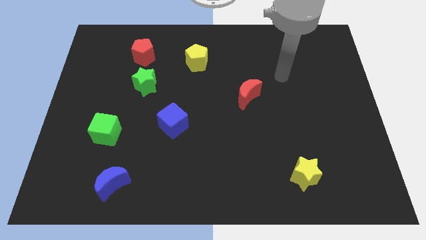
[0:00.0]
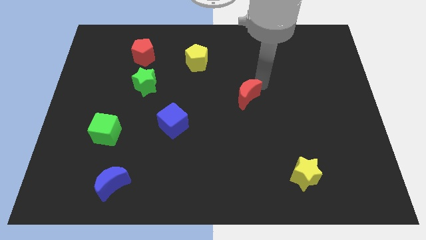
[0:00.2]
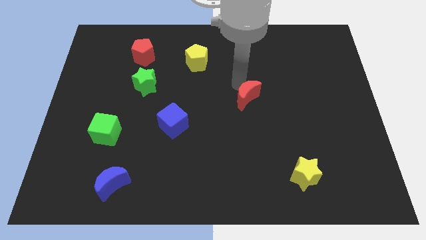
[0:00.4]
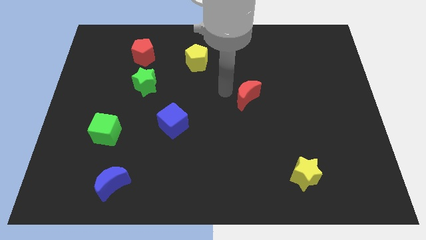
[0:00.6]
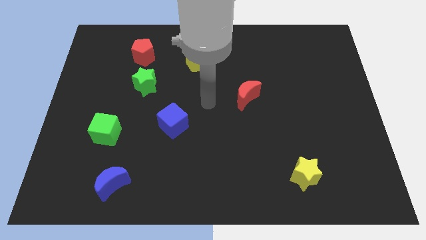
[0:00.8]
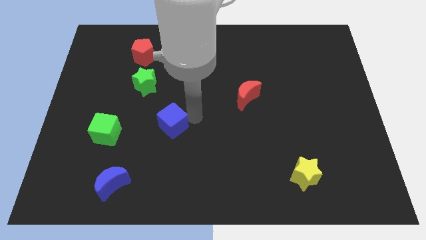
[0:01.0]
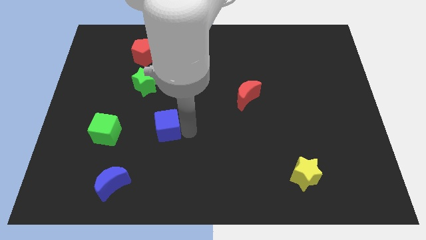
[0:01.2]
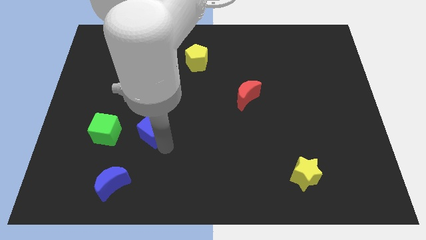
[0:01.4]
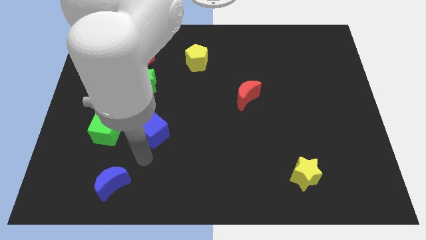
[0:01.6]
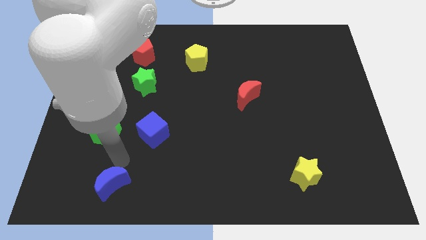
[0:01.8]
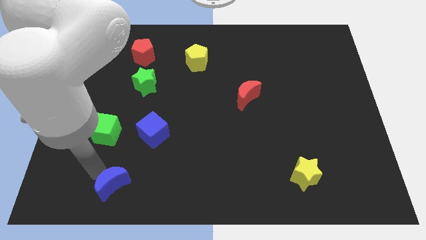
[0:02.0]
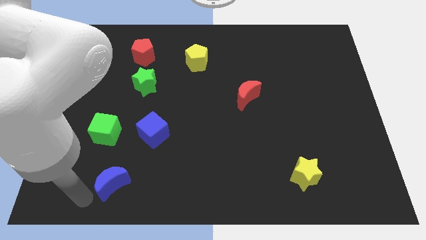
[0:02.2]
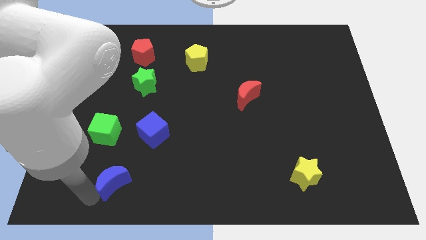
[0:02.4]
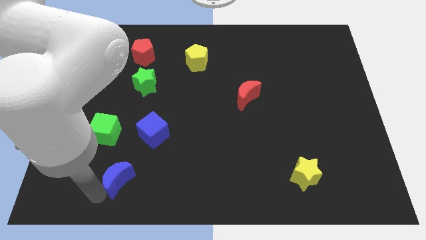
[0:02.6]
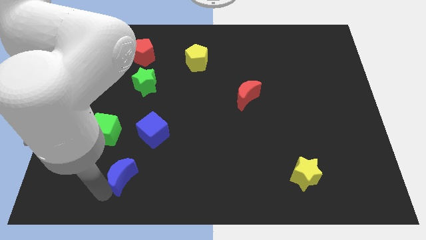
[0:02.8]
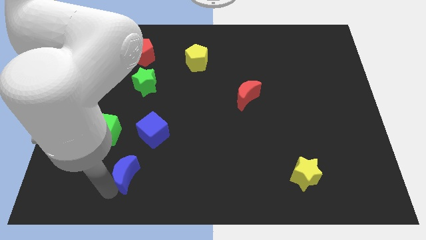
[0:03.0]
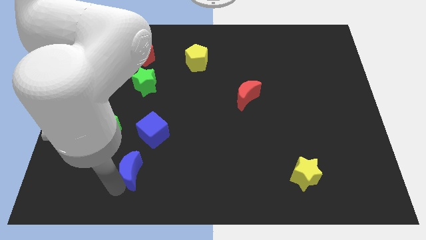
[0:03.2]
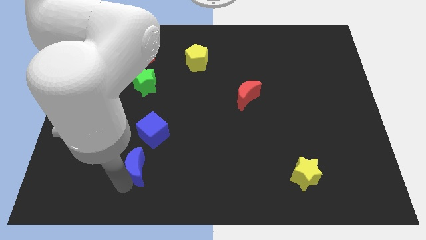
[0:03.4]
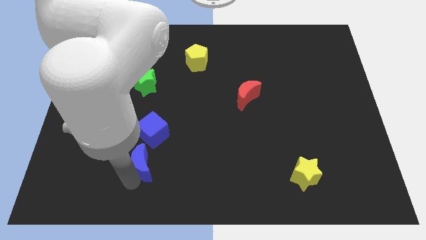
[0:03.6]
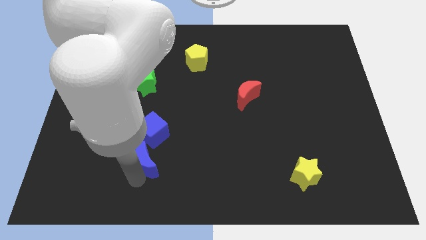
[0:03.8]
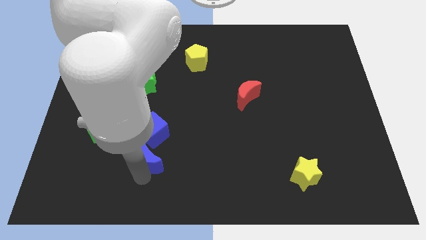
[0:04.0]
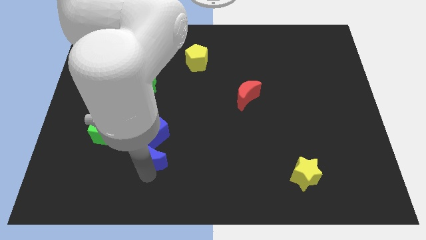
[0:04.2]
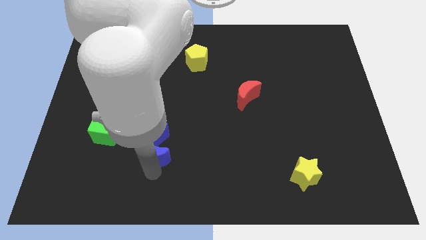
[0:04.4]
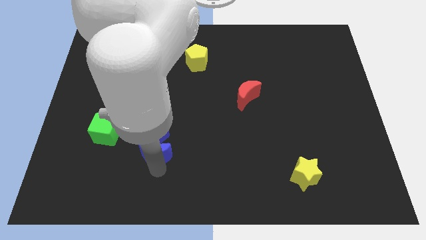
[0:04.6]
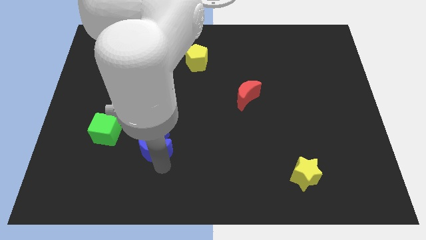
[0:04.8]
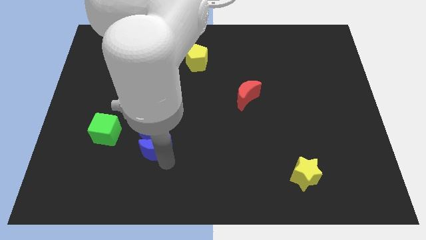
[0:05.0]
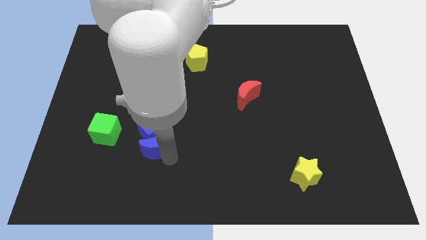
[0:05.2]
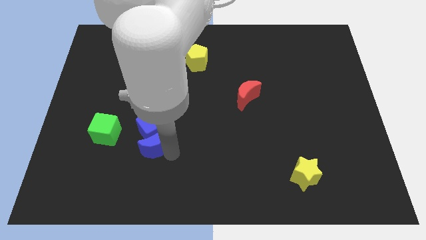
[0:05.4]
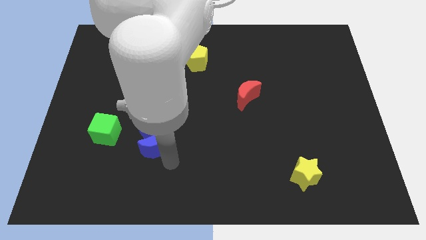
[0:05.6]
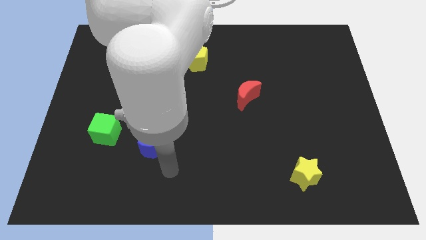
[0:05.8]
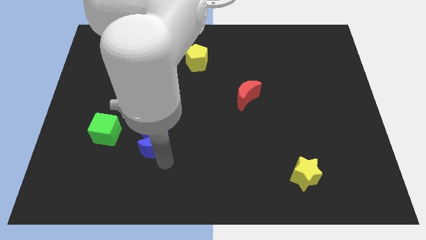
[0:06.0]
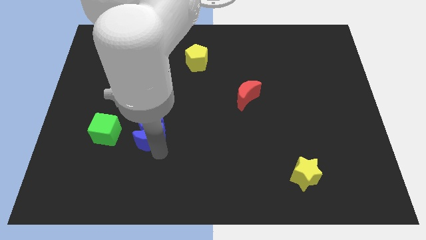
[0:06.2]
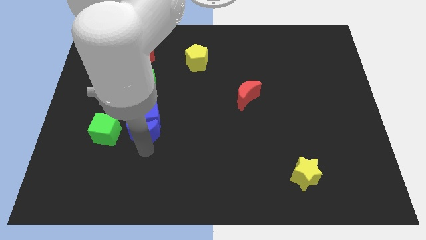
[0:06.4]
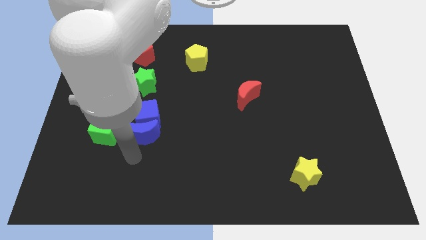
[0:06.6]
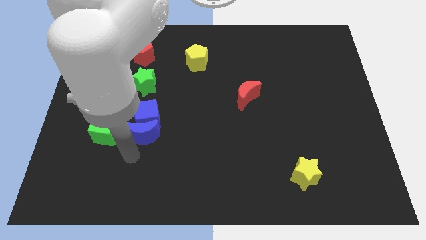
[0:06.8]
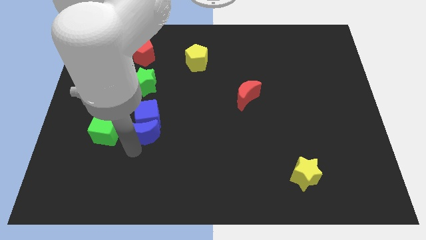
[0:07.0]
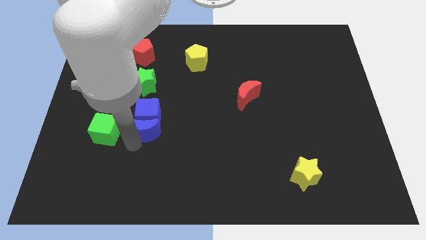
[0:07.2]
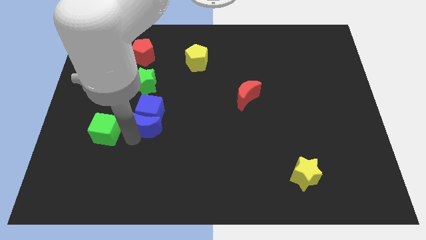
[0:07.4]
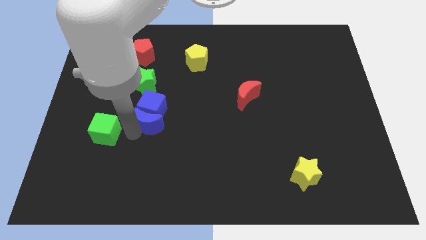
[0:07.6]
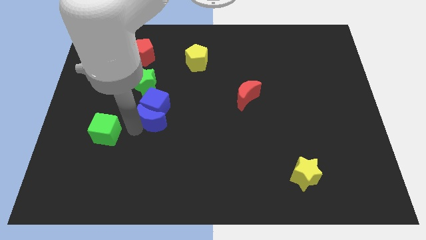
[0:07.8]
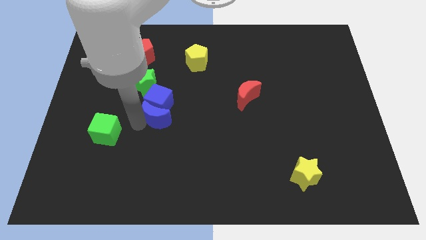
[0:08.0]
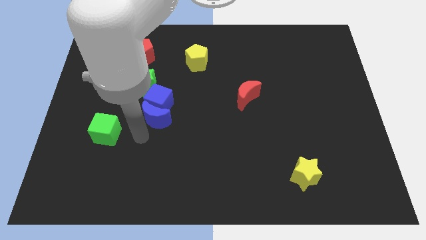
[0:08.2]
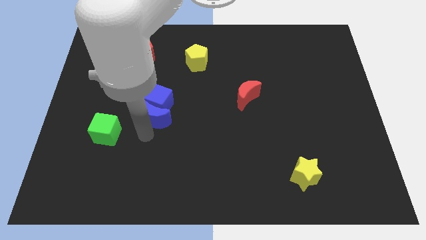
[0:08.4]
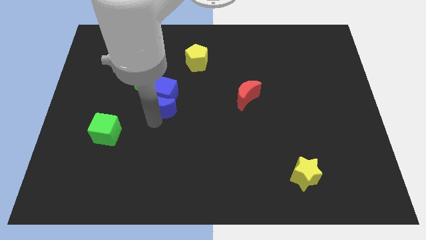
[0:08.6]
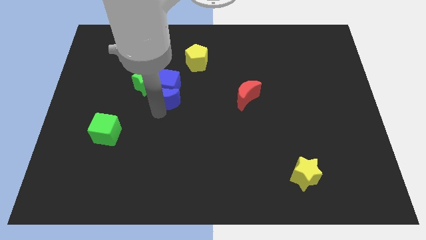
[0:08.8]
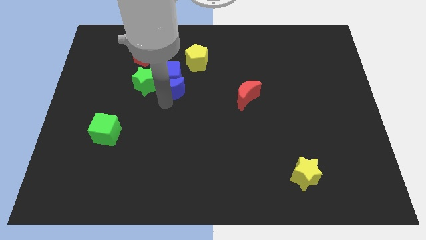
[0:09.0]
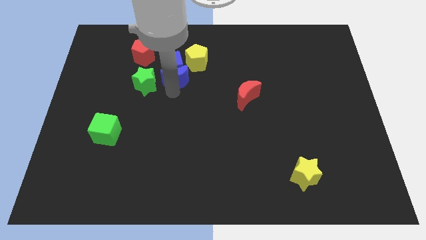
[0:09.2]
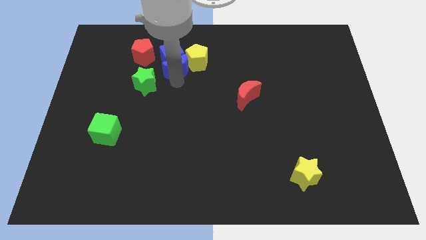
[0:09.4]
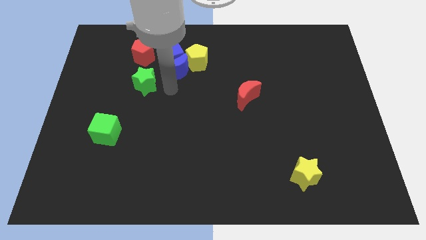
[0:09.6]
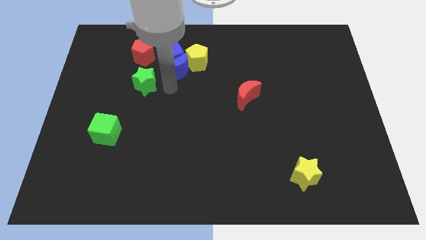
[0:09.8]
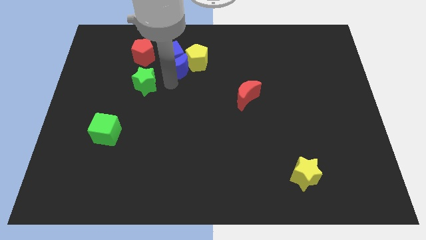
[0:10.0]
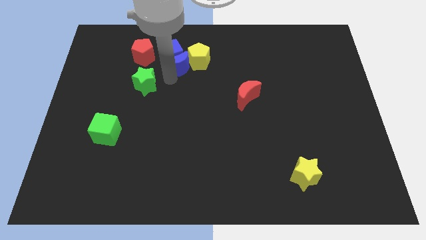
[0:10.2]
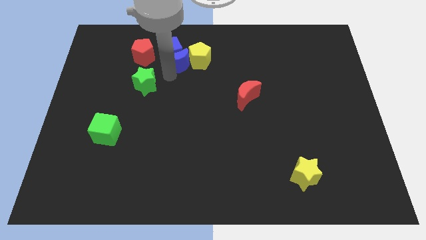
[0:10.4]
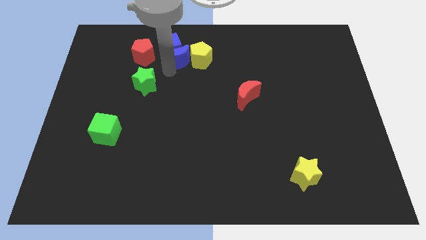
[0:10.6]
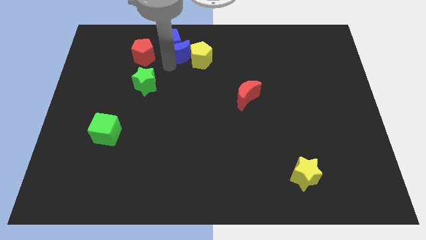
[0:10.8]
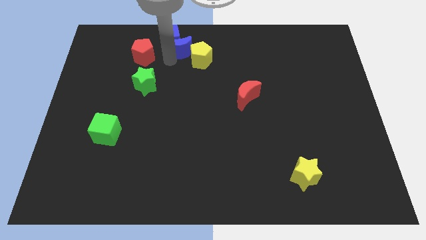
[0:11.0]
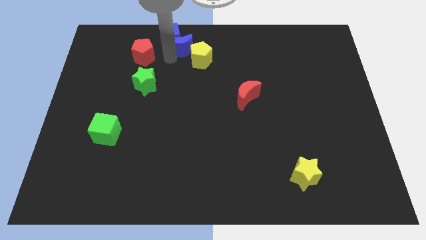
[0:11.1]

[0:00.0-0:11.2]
push the blue moon to the top side

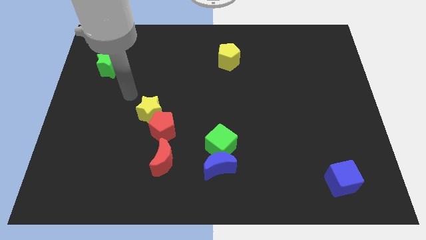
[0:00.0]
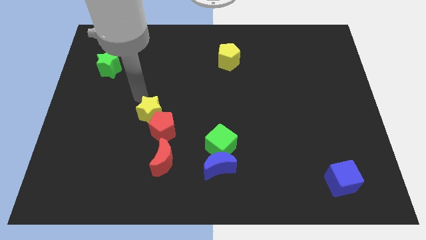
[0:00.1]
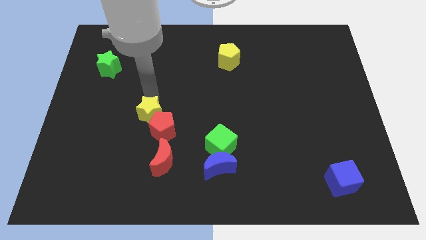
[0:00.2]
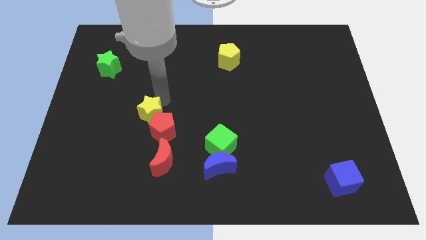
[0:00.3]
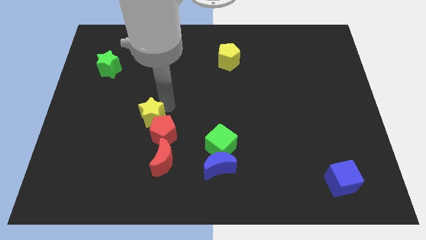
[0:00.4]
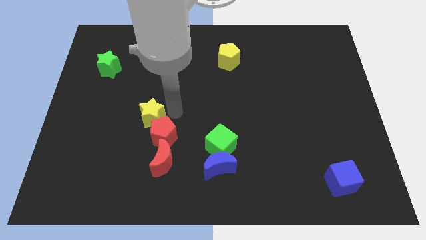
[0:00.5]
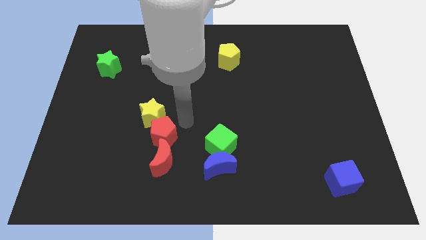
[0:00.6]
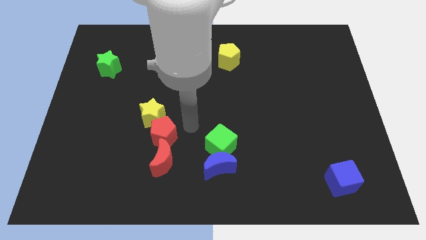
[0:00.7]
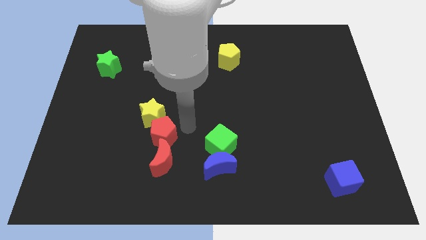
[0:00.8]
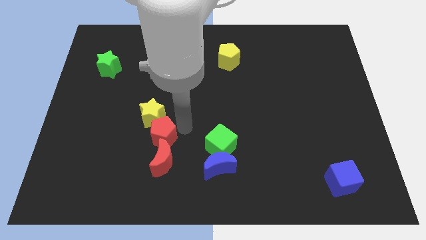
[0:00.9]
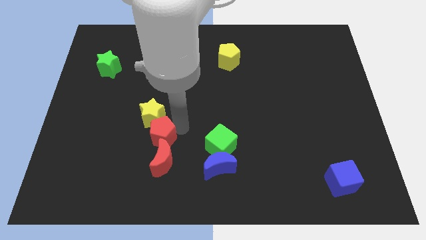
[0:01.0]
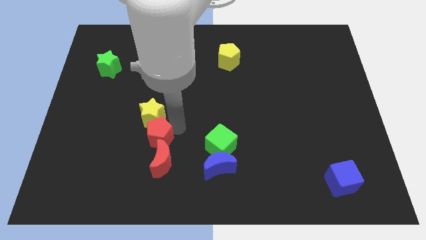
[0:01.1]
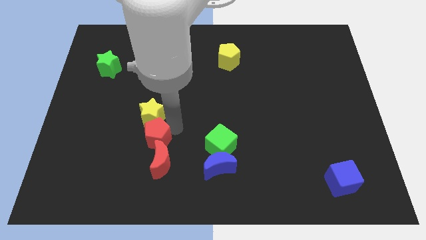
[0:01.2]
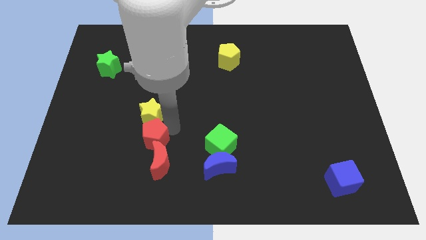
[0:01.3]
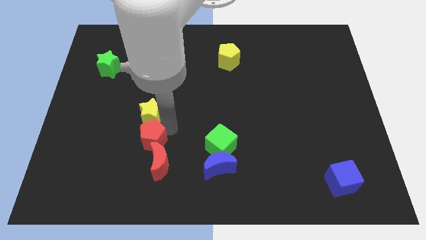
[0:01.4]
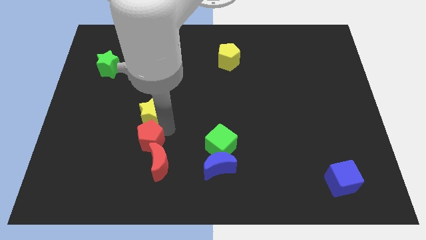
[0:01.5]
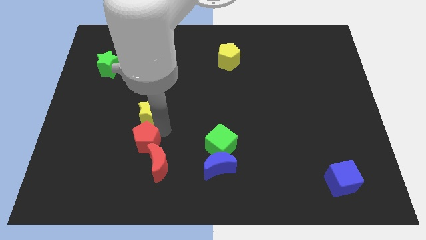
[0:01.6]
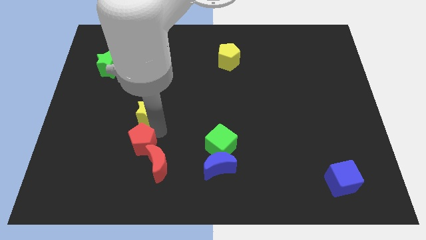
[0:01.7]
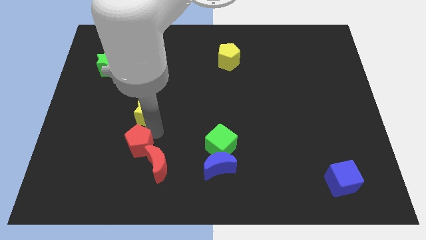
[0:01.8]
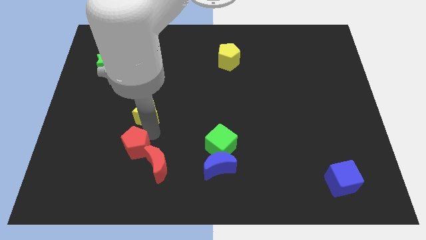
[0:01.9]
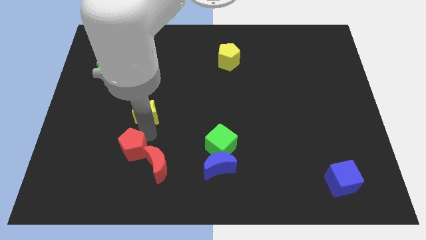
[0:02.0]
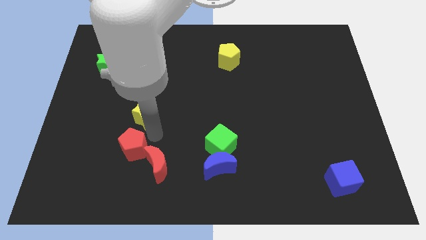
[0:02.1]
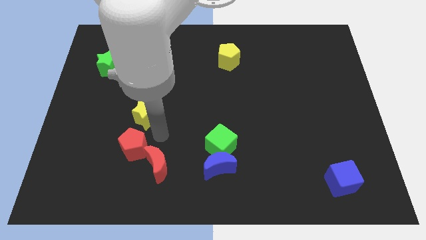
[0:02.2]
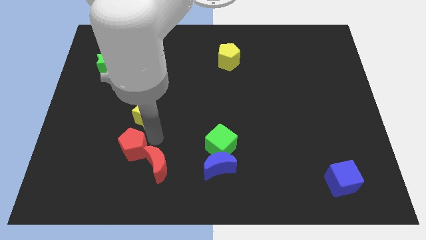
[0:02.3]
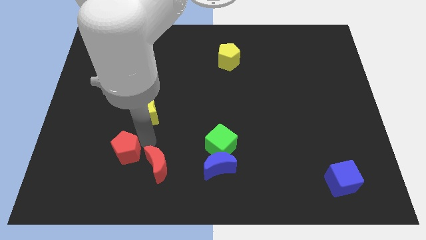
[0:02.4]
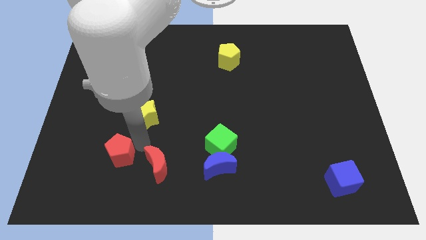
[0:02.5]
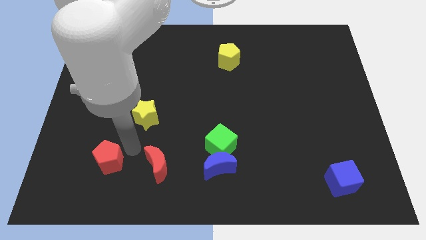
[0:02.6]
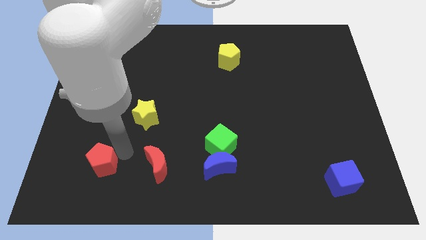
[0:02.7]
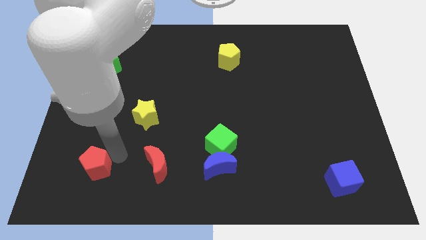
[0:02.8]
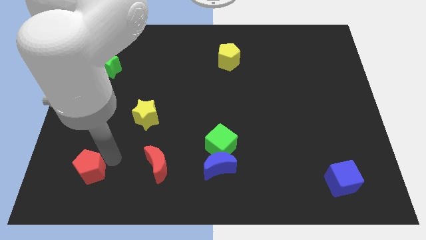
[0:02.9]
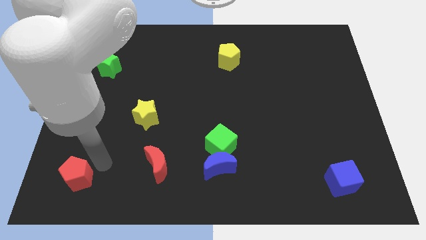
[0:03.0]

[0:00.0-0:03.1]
push the red pentagon to the bottom left corner
